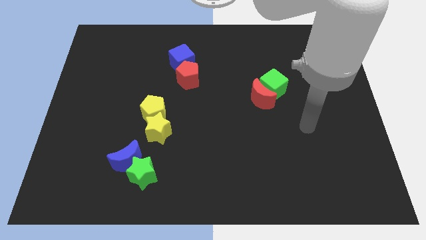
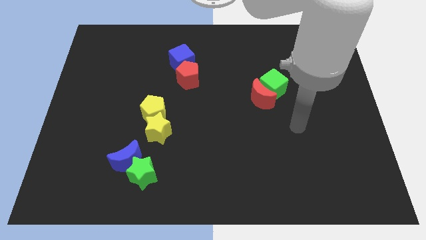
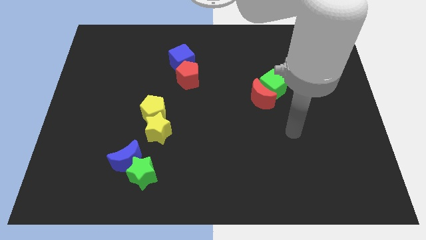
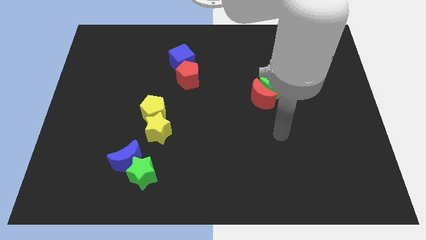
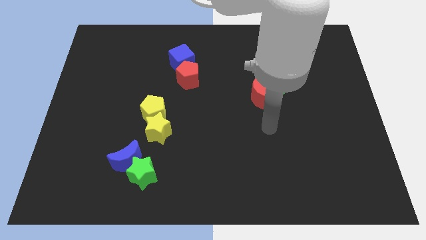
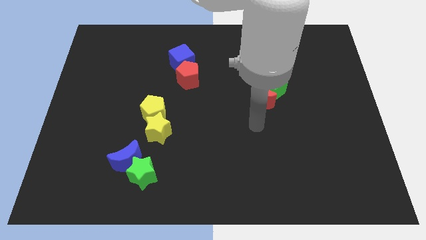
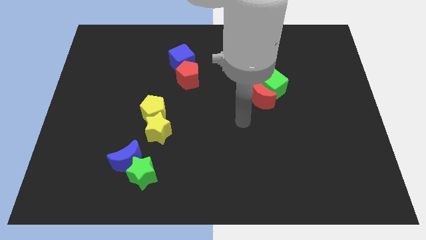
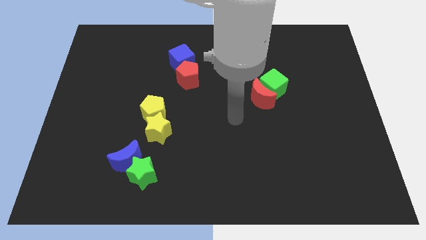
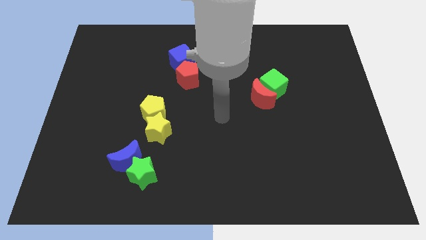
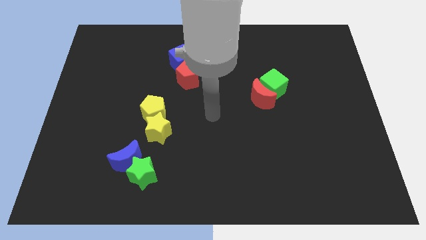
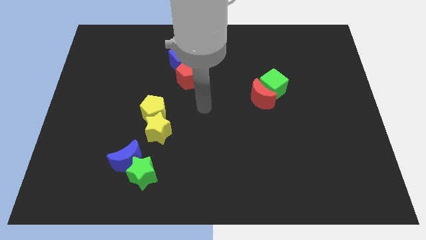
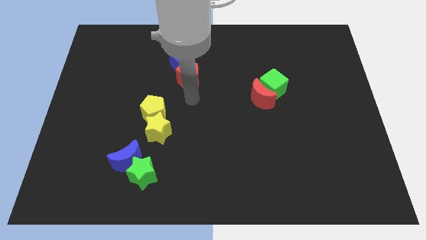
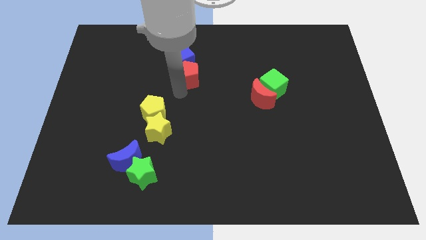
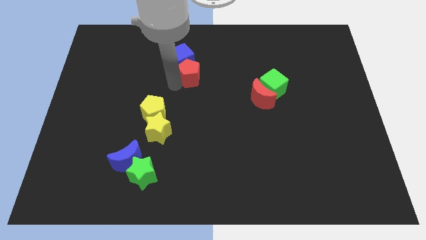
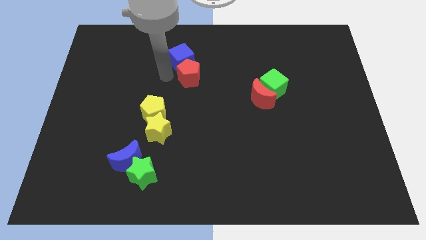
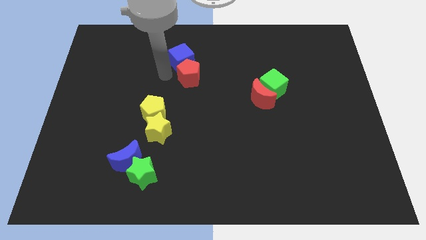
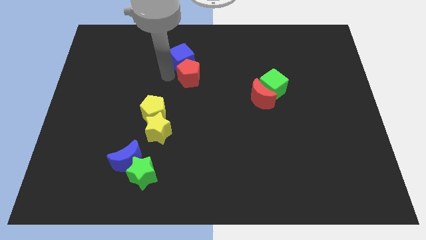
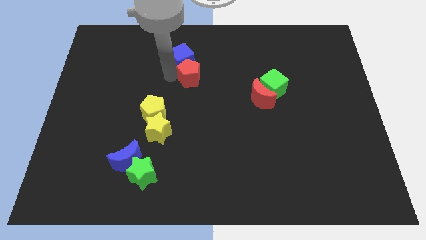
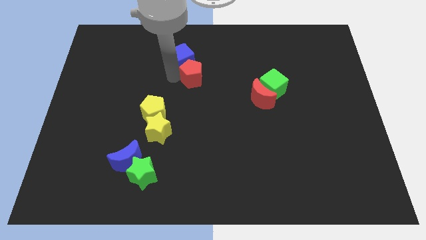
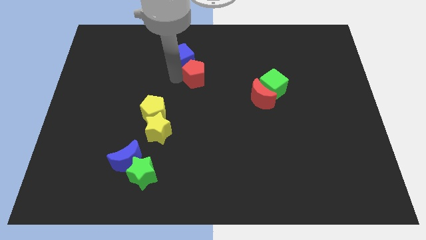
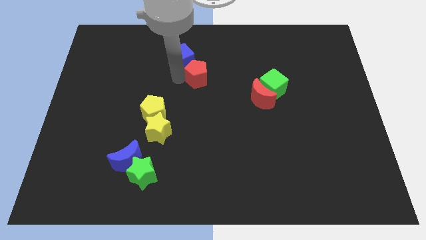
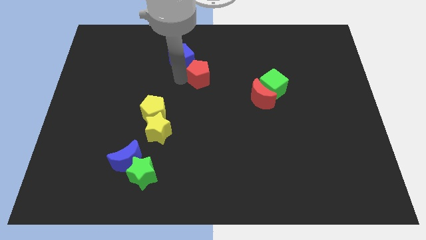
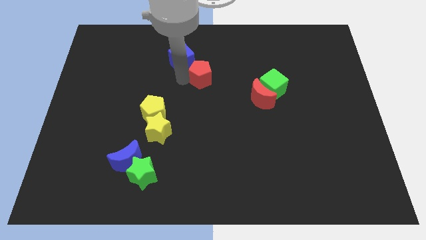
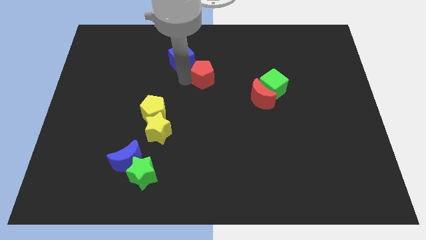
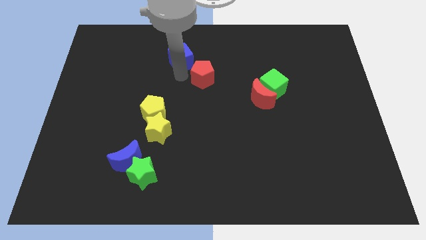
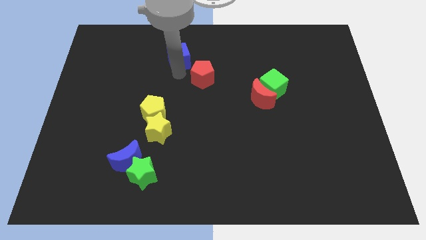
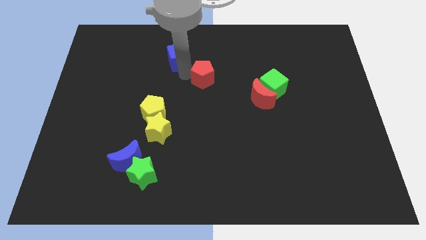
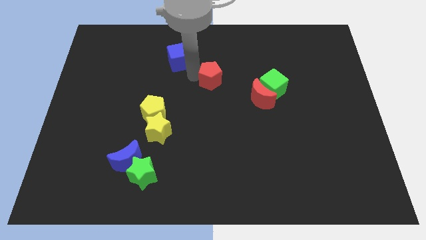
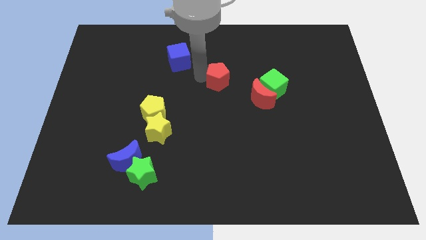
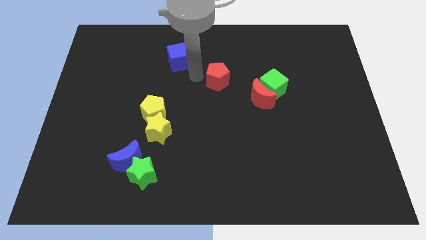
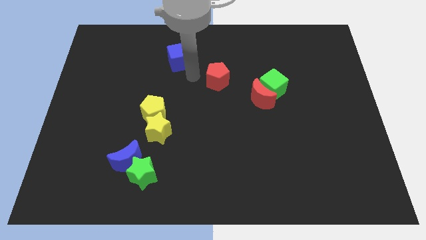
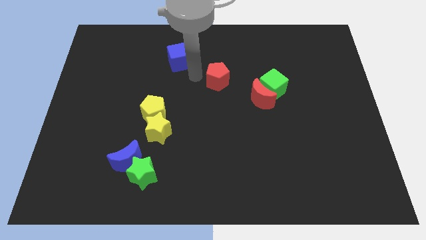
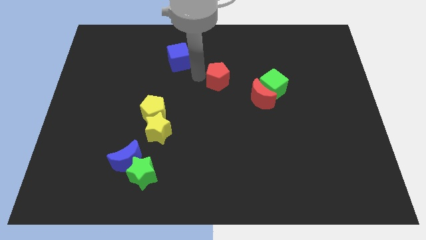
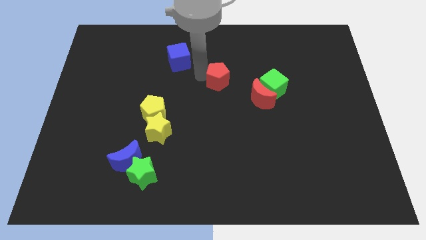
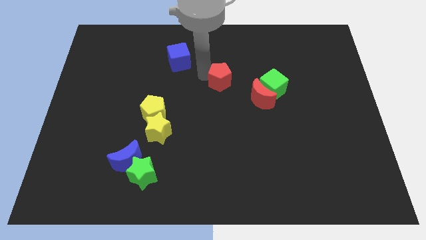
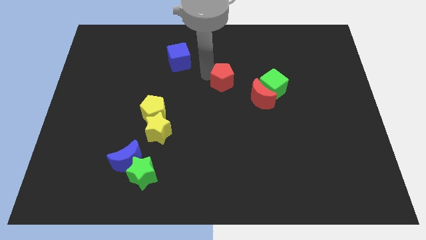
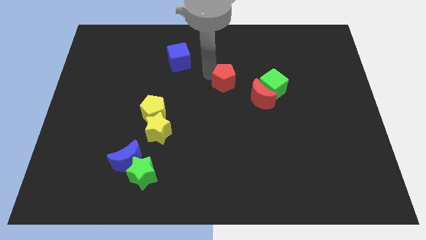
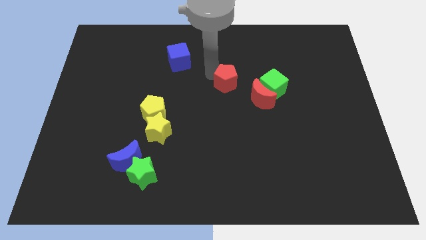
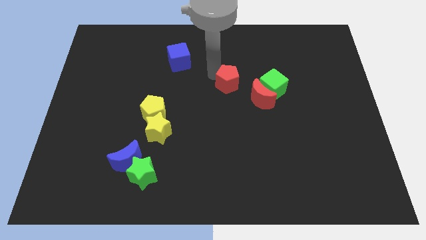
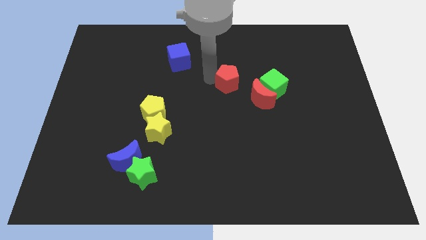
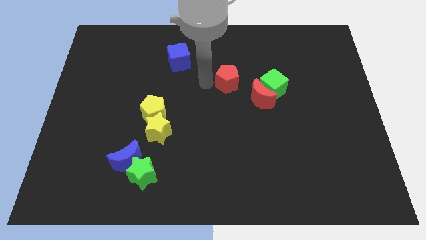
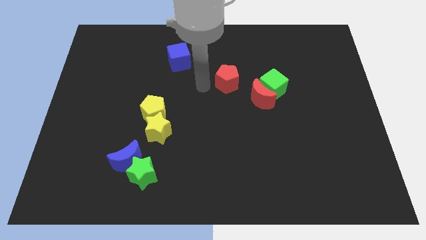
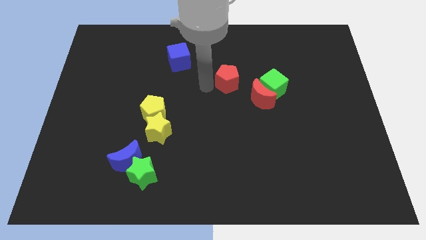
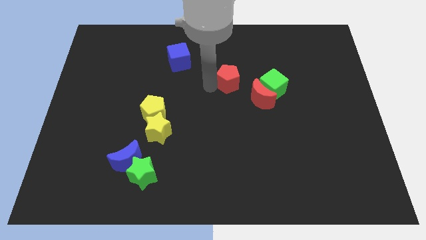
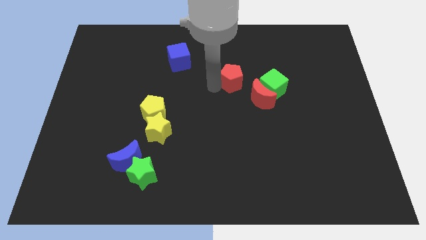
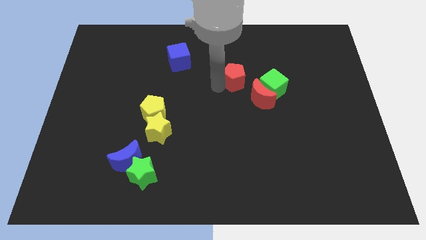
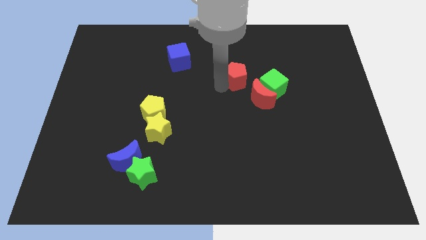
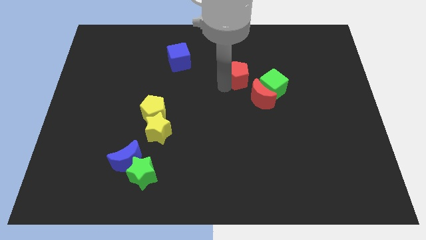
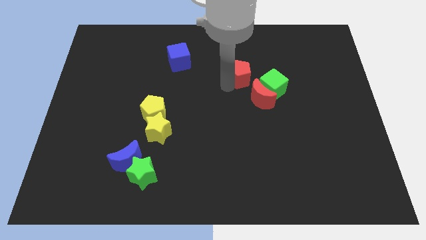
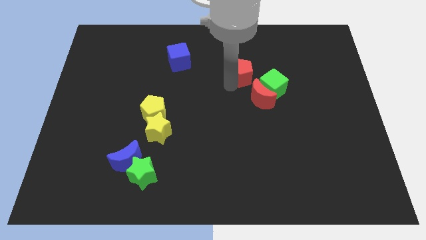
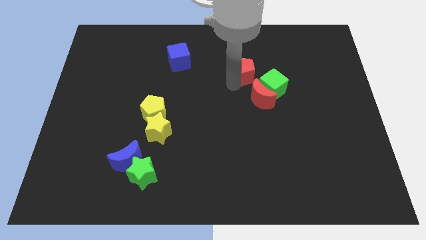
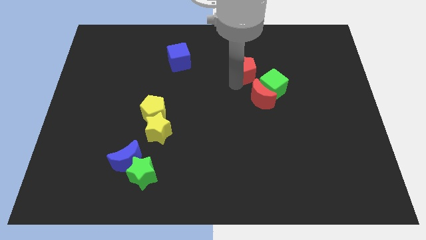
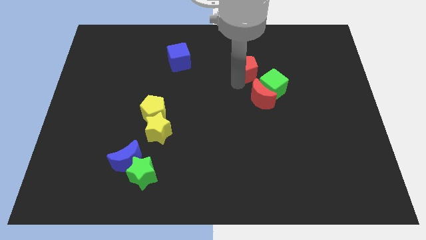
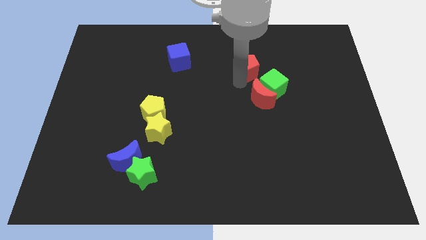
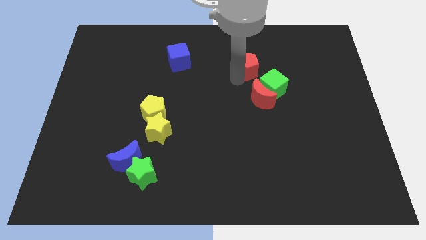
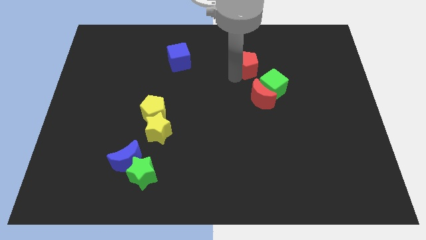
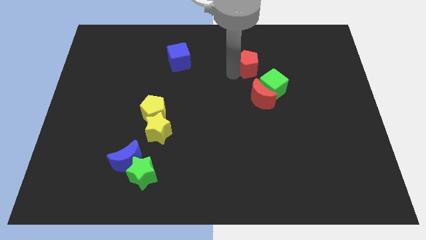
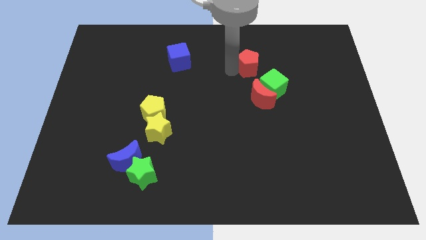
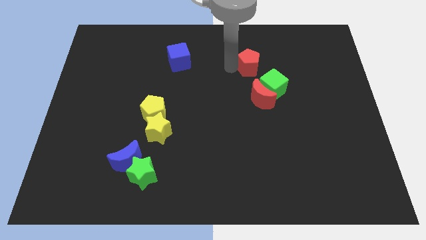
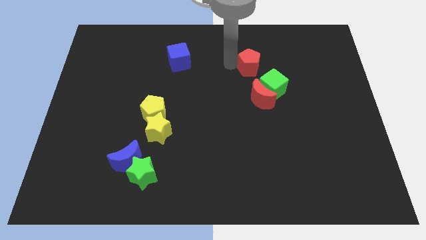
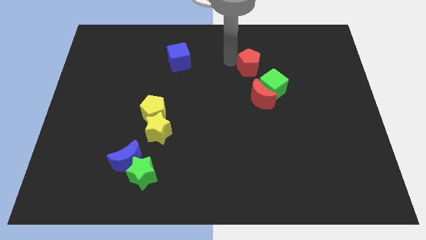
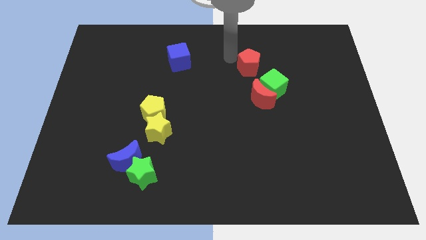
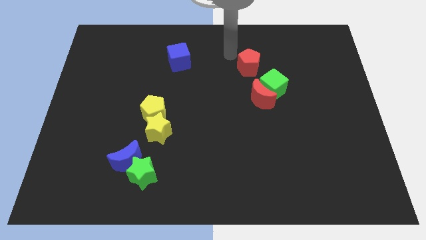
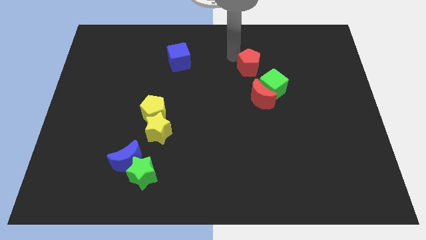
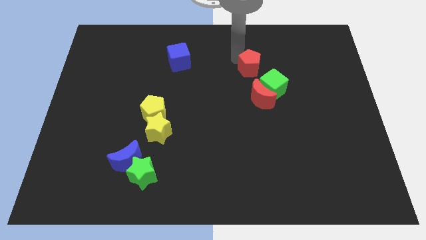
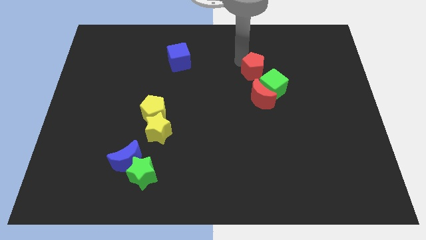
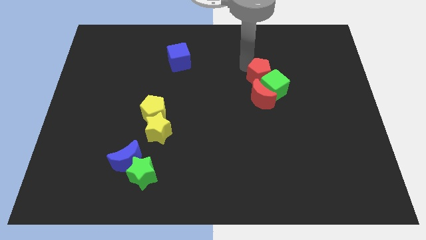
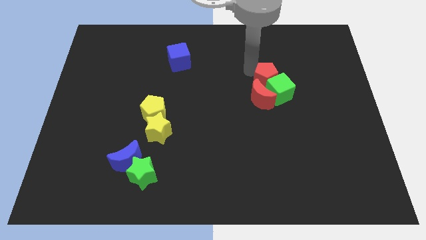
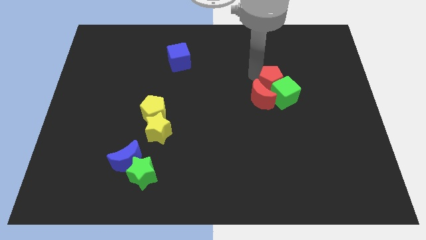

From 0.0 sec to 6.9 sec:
move the red pentagon to the right

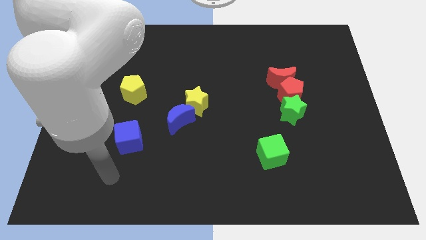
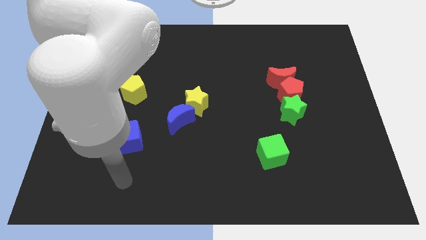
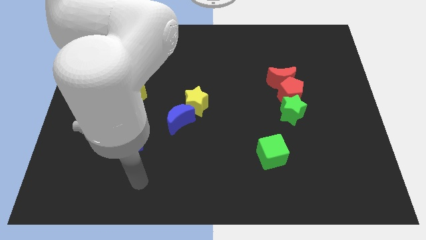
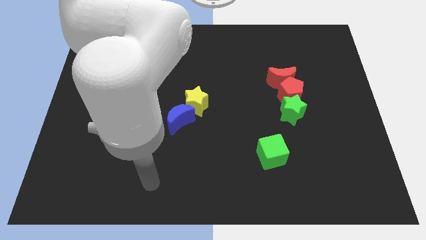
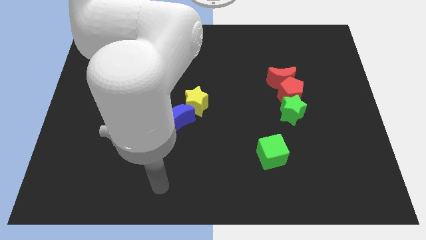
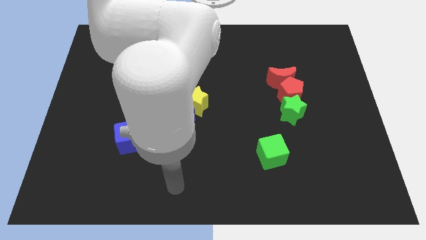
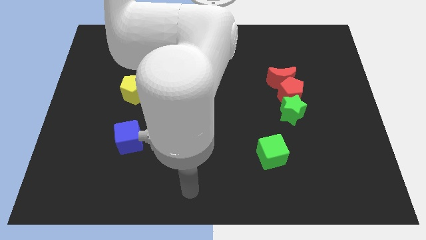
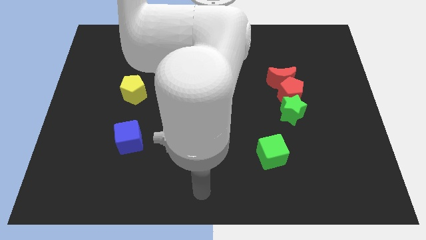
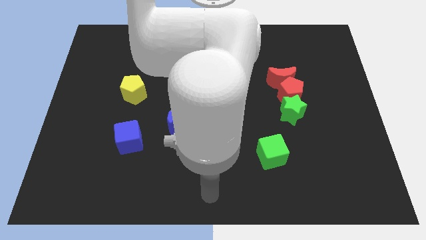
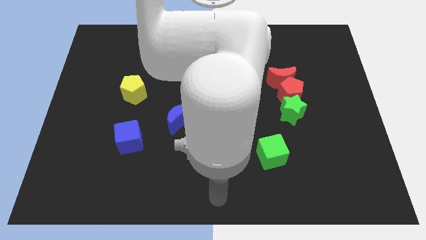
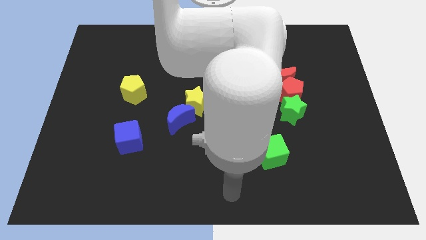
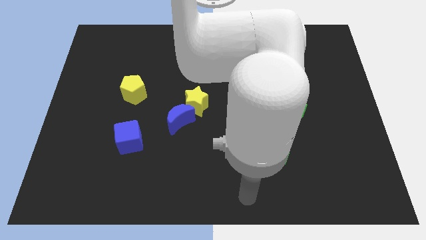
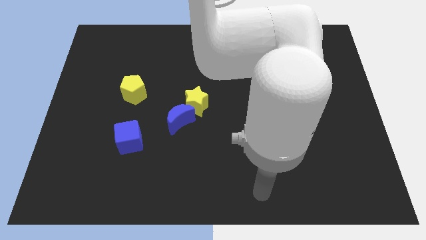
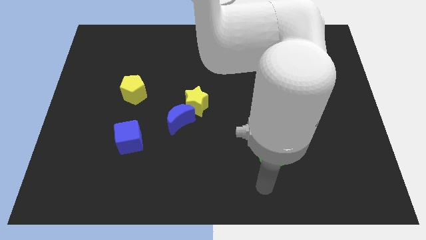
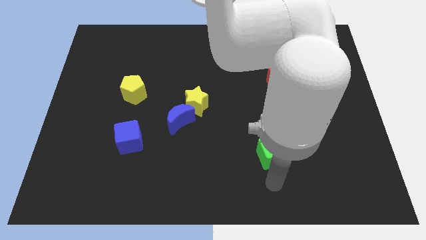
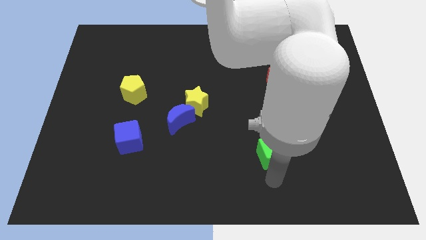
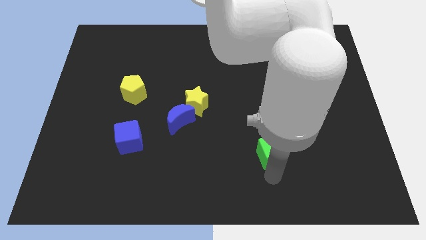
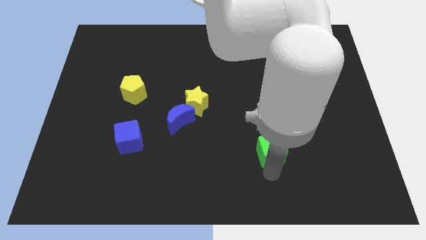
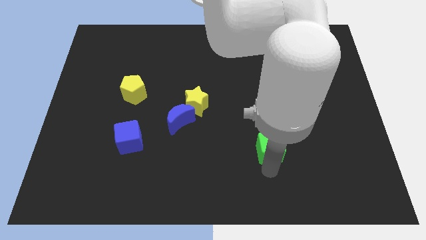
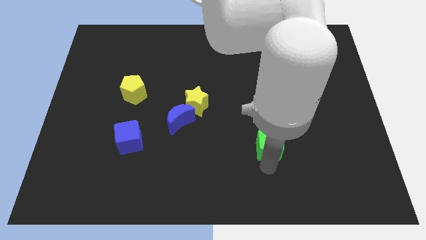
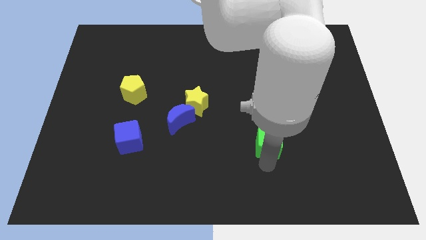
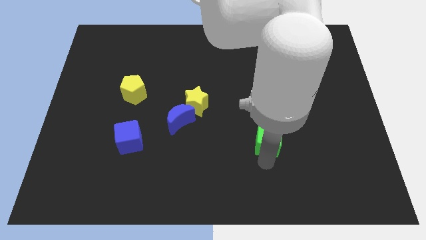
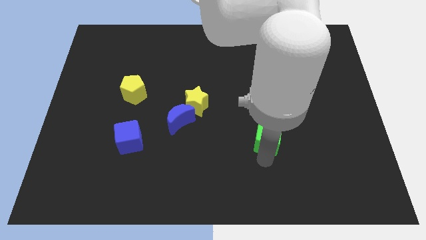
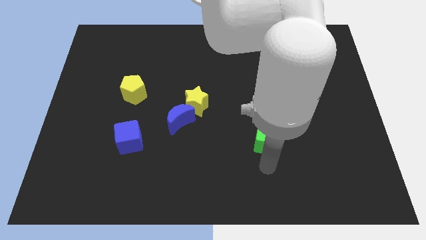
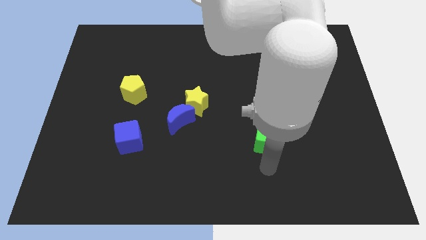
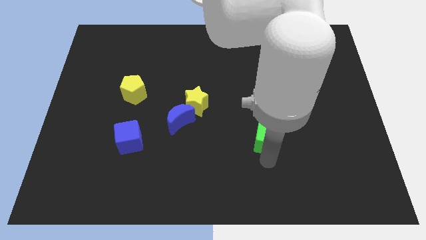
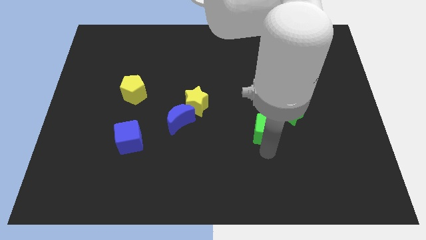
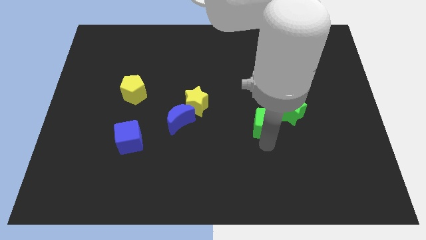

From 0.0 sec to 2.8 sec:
push the green cube a little bit upwards
